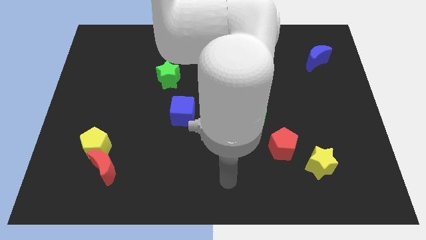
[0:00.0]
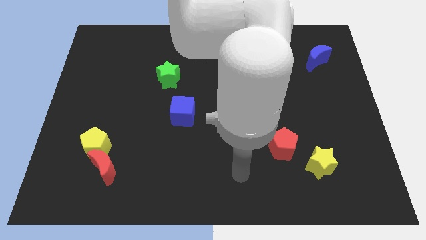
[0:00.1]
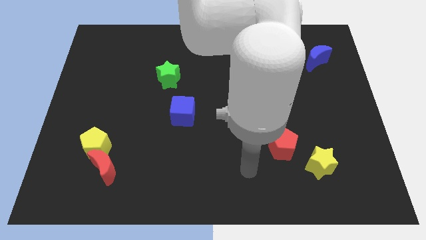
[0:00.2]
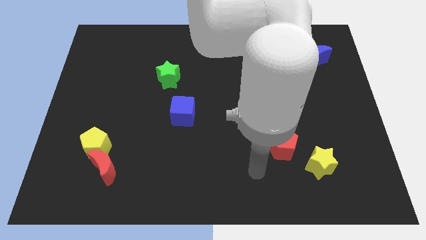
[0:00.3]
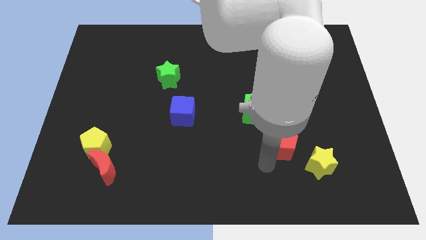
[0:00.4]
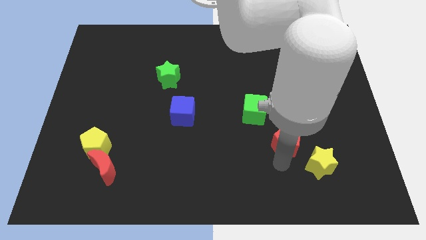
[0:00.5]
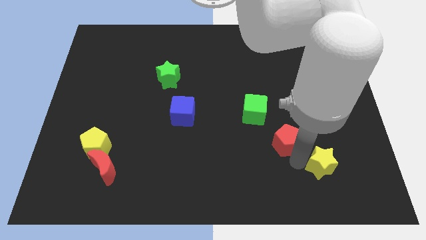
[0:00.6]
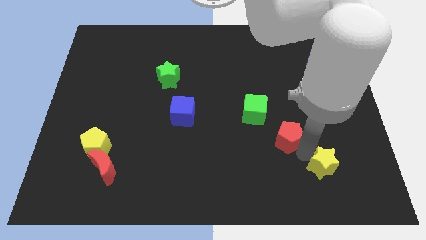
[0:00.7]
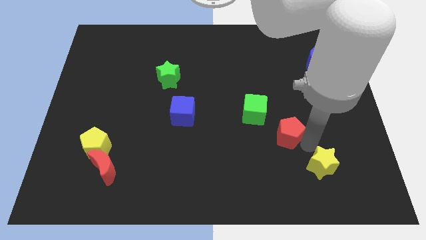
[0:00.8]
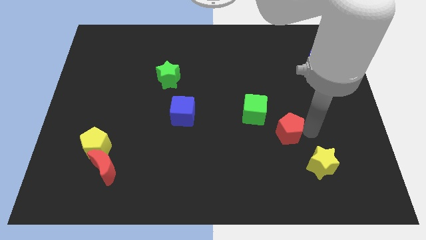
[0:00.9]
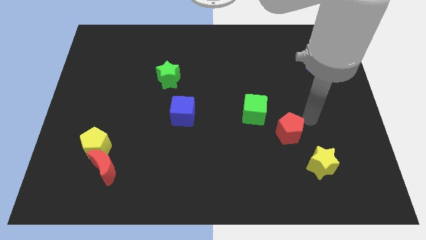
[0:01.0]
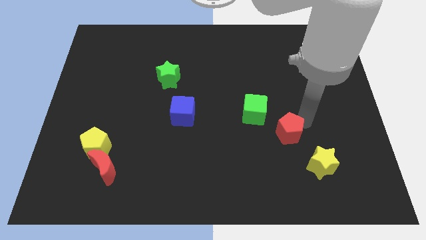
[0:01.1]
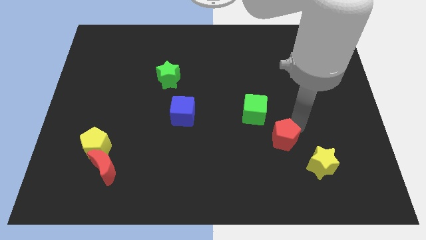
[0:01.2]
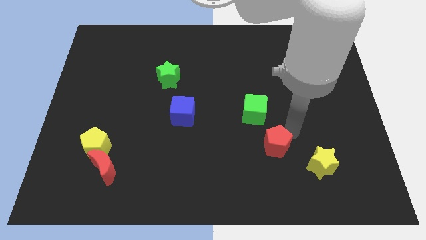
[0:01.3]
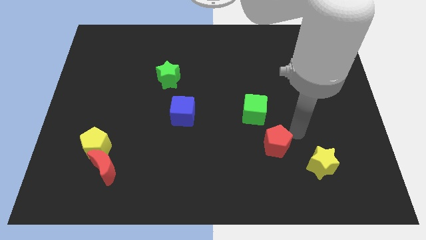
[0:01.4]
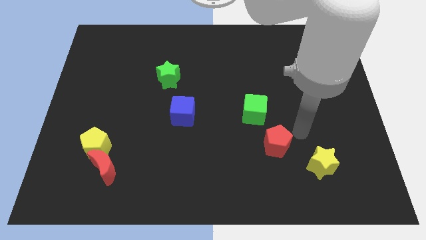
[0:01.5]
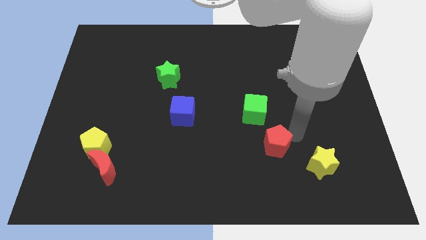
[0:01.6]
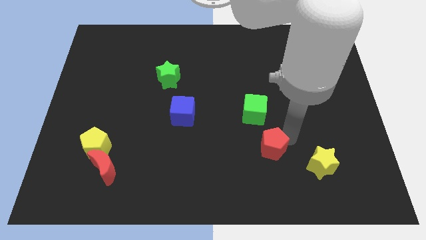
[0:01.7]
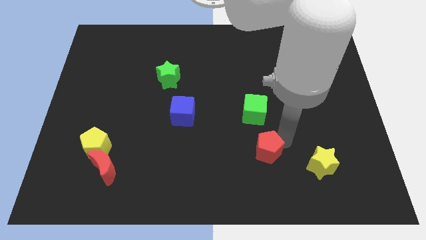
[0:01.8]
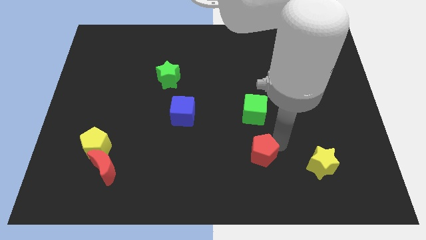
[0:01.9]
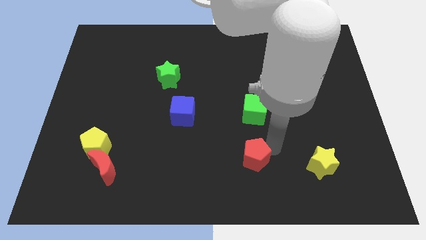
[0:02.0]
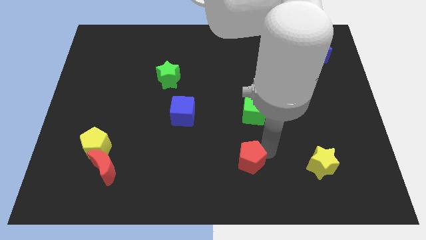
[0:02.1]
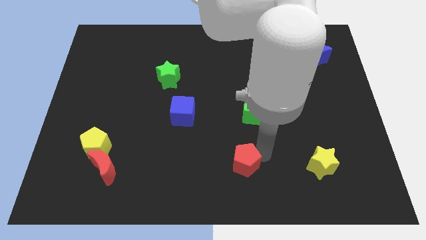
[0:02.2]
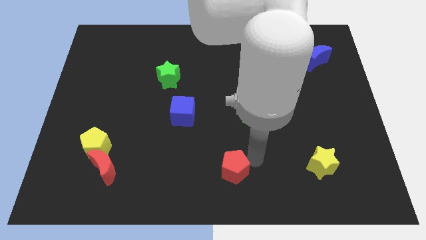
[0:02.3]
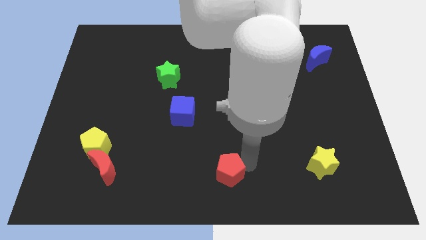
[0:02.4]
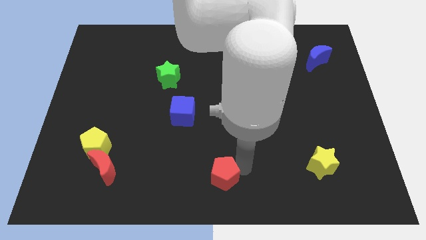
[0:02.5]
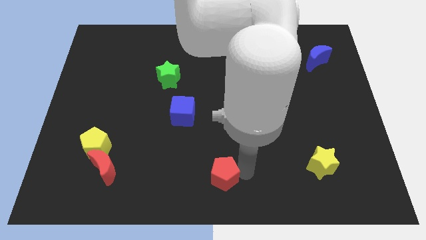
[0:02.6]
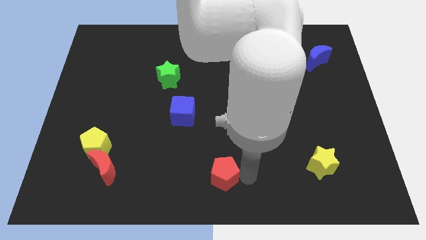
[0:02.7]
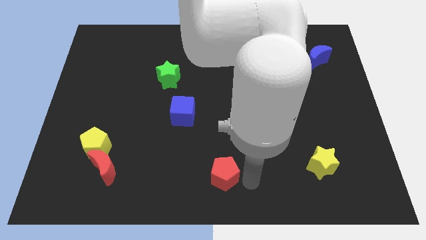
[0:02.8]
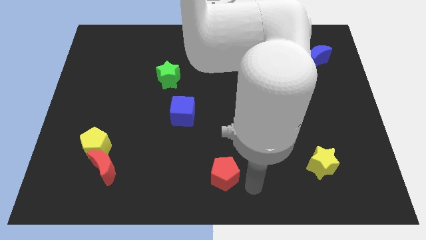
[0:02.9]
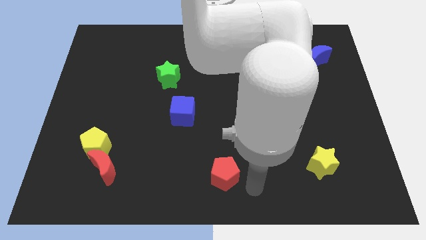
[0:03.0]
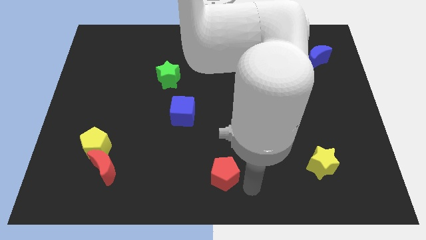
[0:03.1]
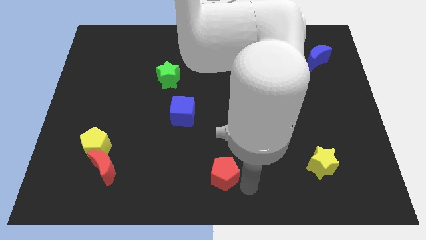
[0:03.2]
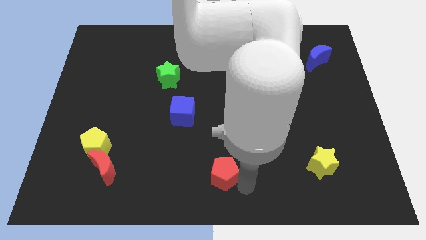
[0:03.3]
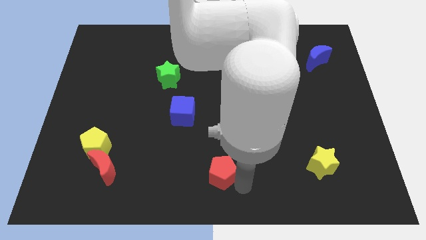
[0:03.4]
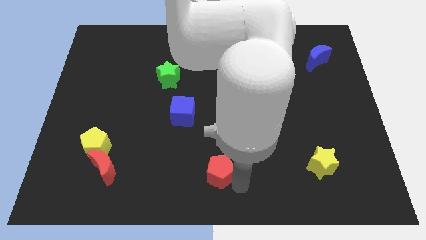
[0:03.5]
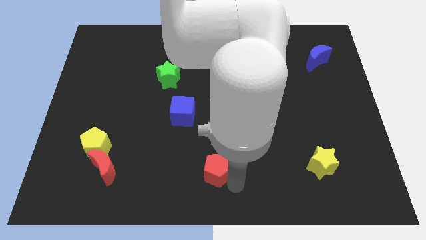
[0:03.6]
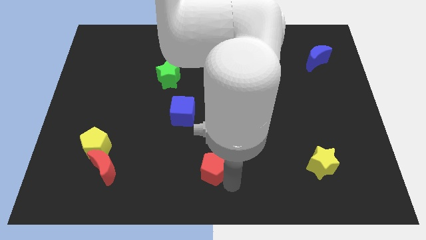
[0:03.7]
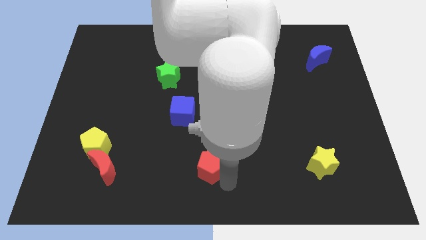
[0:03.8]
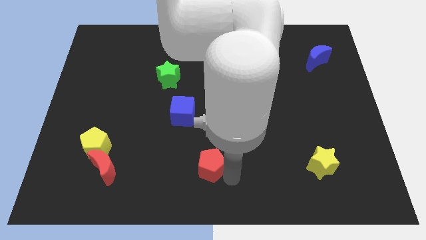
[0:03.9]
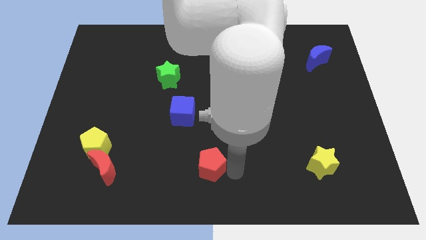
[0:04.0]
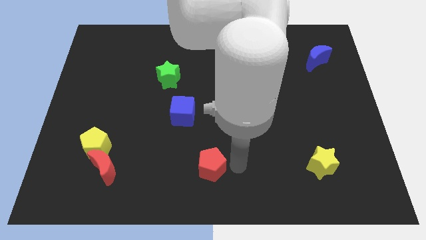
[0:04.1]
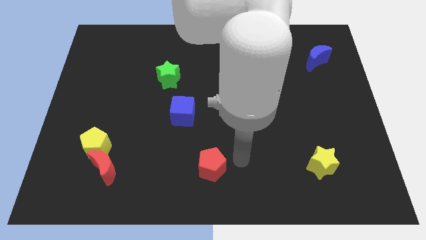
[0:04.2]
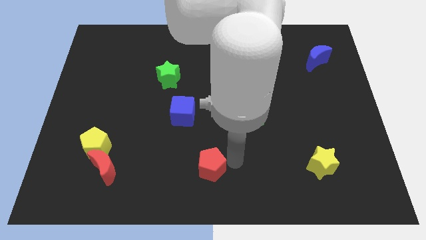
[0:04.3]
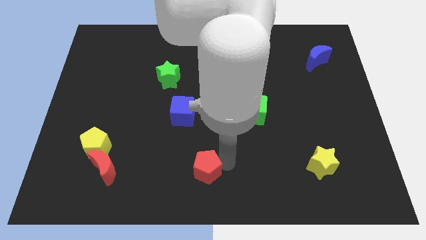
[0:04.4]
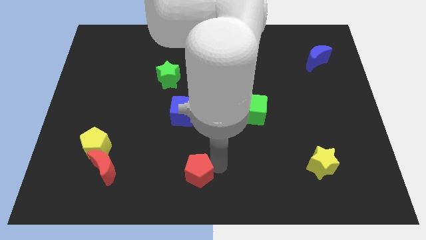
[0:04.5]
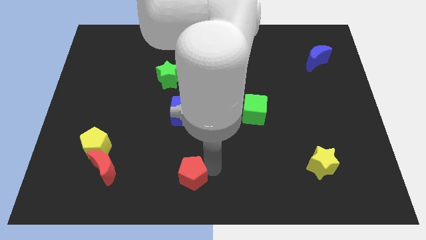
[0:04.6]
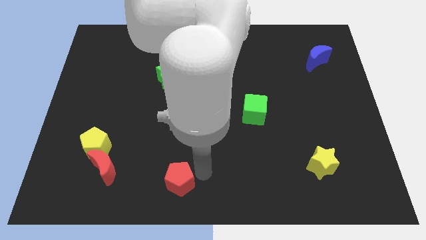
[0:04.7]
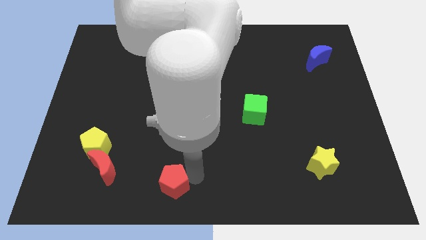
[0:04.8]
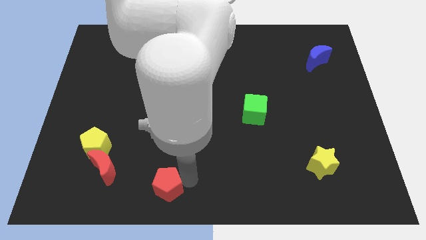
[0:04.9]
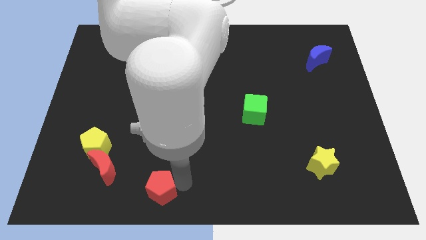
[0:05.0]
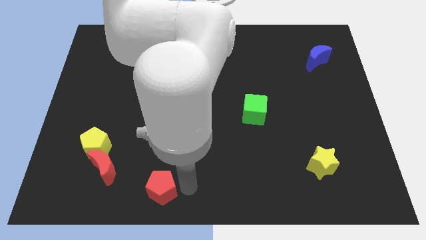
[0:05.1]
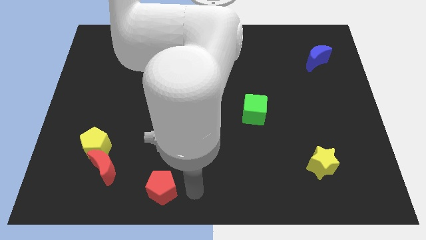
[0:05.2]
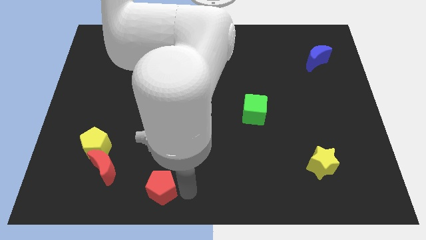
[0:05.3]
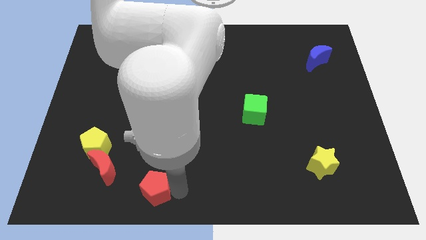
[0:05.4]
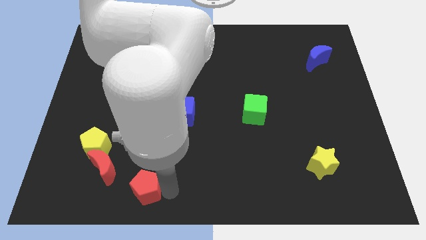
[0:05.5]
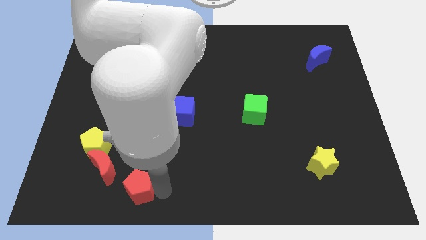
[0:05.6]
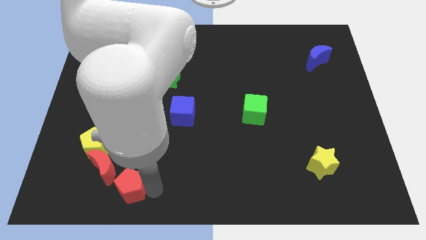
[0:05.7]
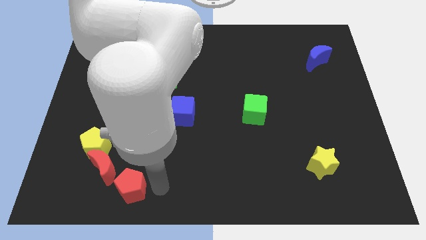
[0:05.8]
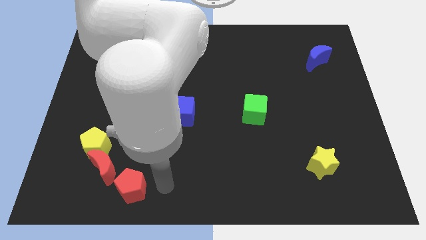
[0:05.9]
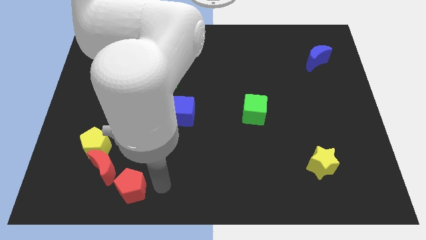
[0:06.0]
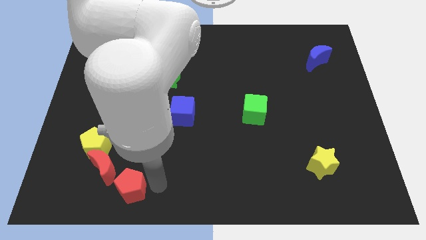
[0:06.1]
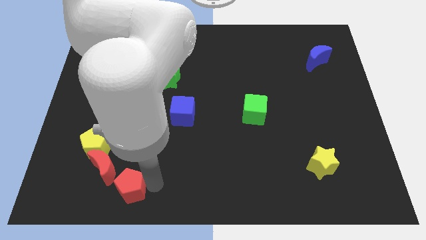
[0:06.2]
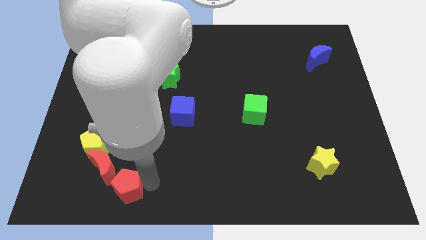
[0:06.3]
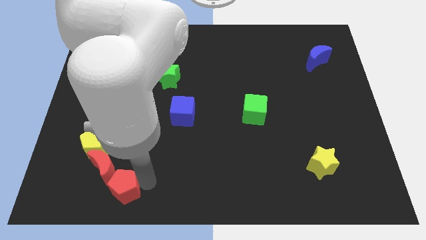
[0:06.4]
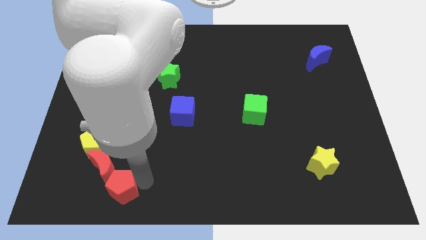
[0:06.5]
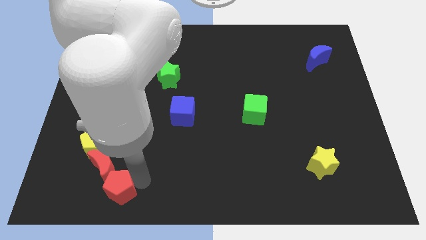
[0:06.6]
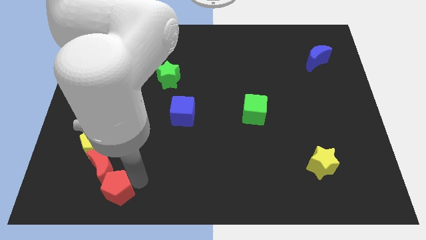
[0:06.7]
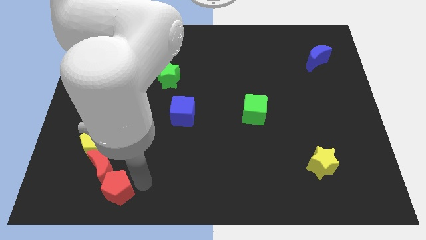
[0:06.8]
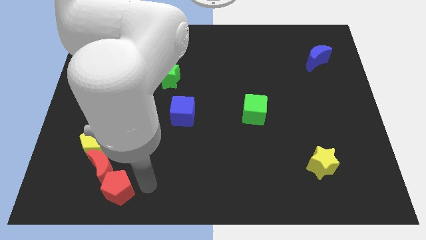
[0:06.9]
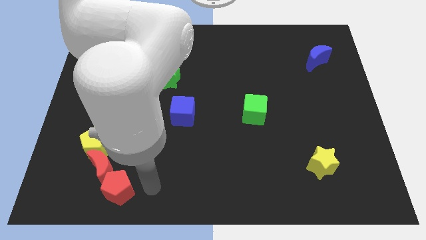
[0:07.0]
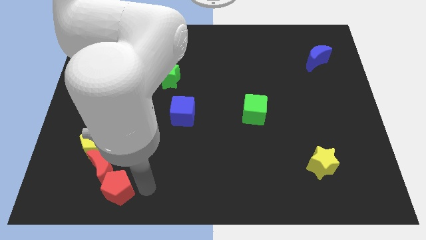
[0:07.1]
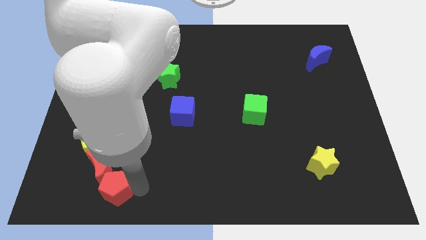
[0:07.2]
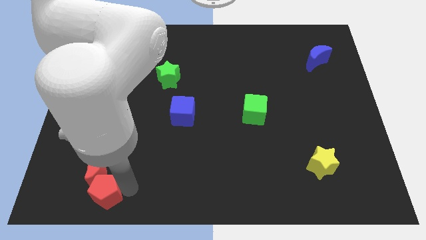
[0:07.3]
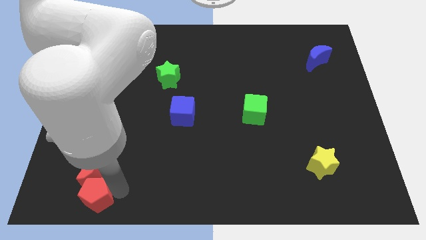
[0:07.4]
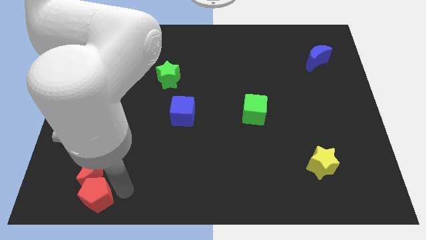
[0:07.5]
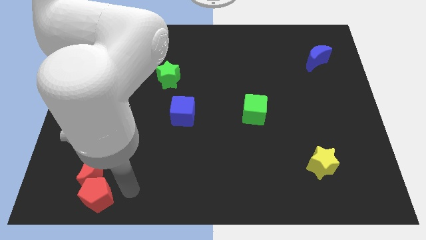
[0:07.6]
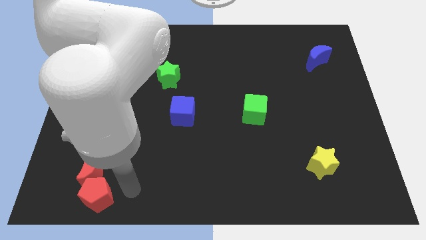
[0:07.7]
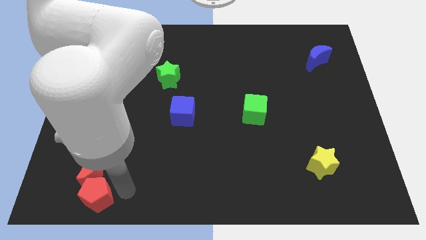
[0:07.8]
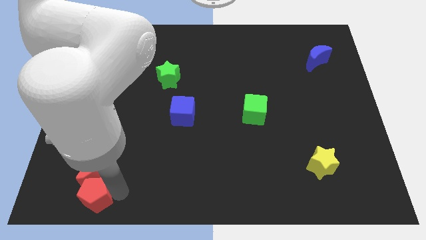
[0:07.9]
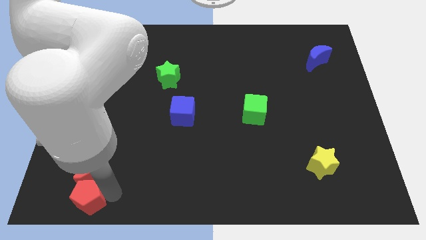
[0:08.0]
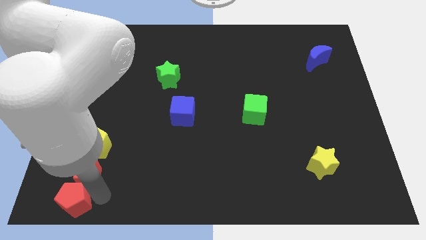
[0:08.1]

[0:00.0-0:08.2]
move the red pentagon to the bottom left of the board
